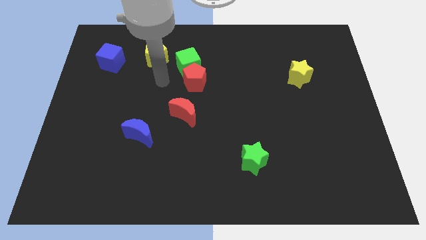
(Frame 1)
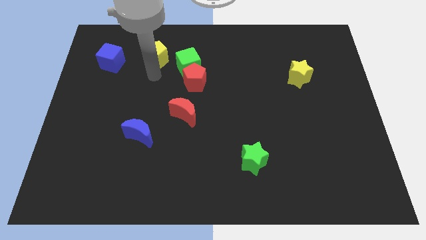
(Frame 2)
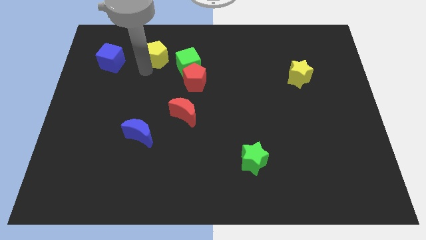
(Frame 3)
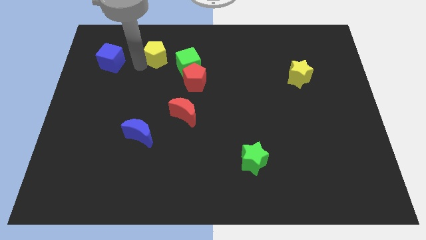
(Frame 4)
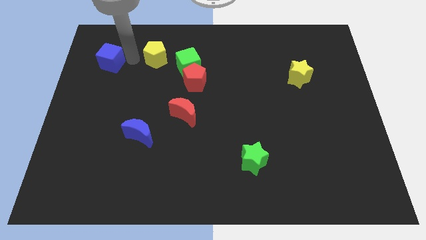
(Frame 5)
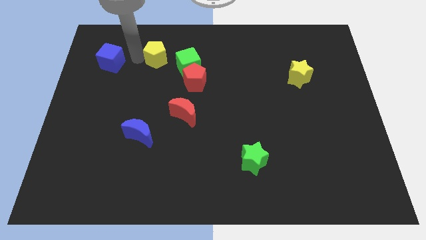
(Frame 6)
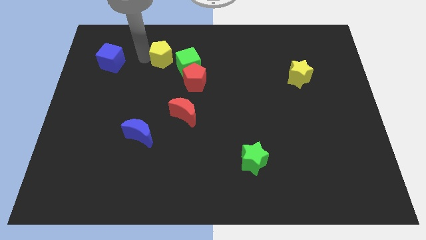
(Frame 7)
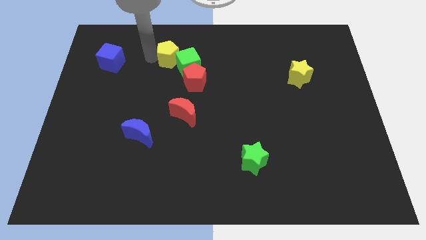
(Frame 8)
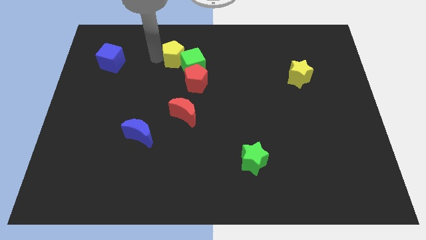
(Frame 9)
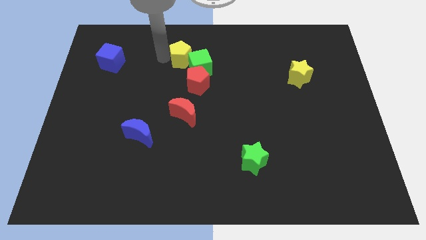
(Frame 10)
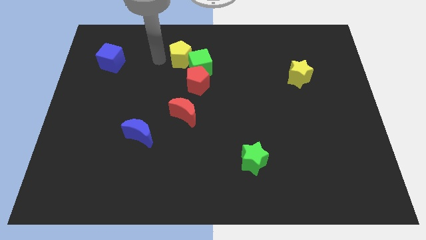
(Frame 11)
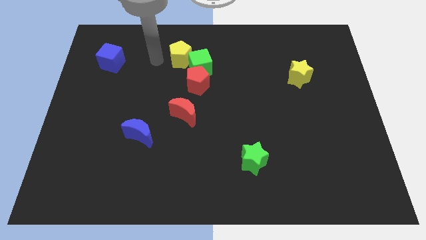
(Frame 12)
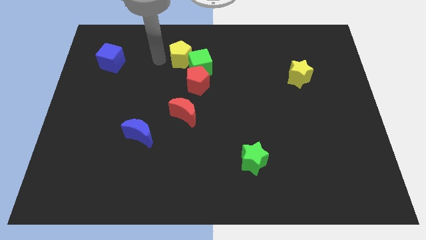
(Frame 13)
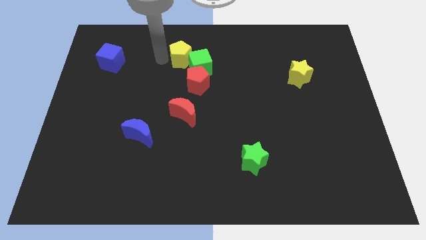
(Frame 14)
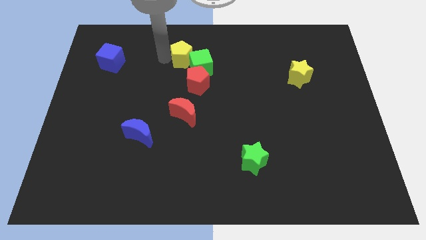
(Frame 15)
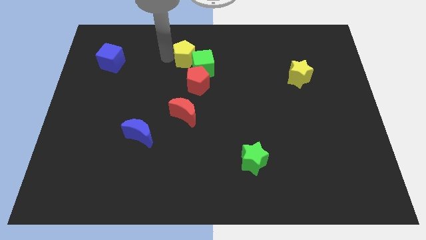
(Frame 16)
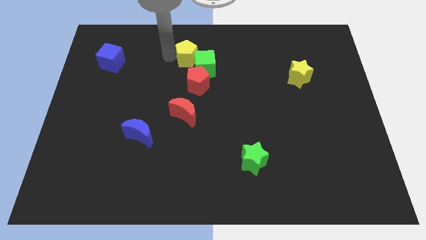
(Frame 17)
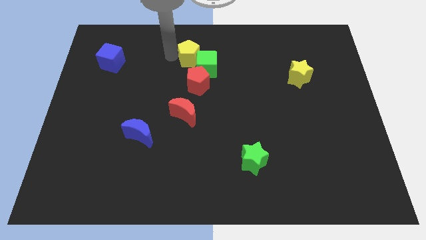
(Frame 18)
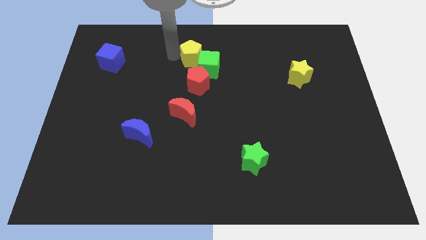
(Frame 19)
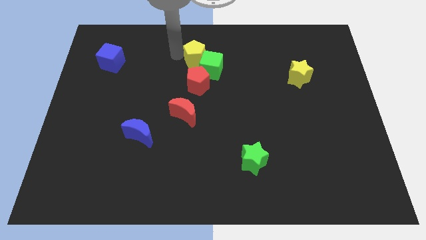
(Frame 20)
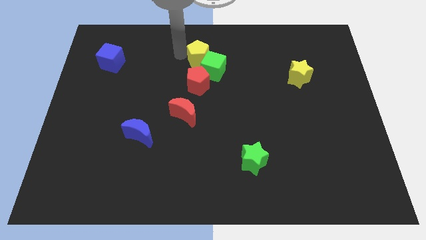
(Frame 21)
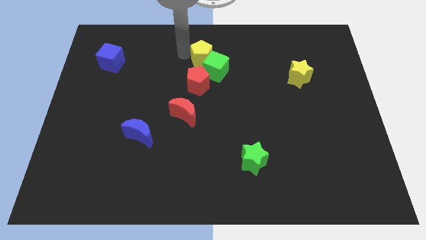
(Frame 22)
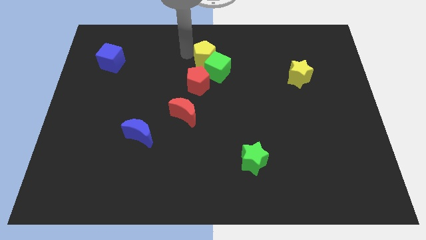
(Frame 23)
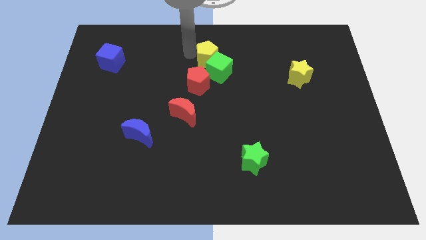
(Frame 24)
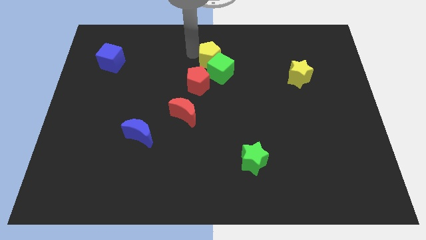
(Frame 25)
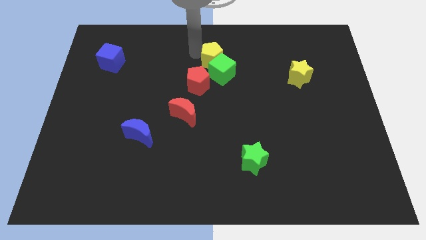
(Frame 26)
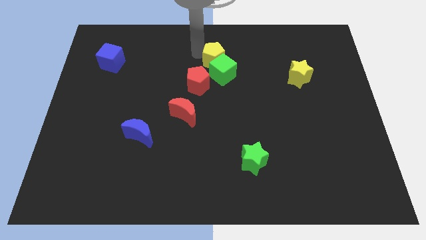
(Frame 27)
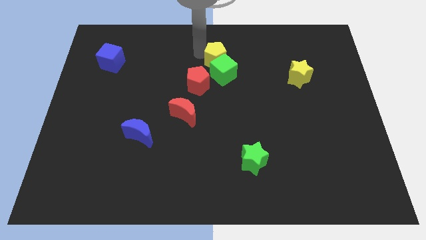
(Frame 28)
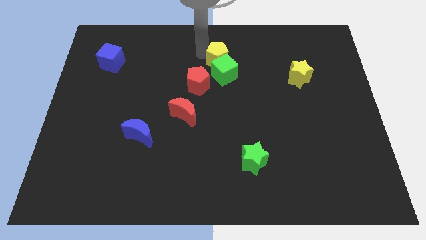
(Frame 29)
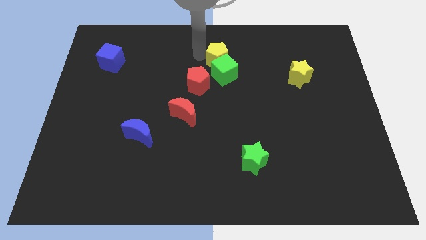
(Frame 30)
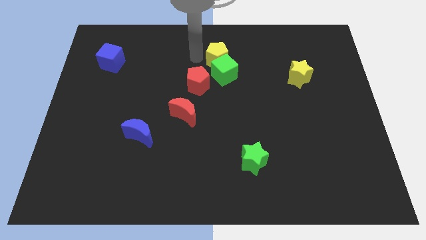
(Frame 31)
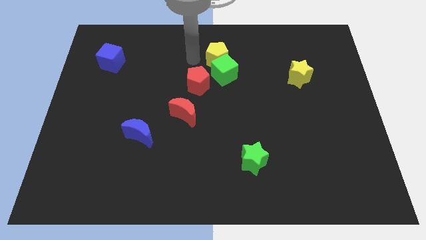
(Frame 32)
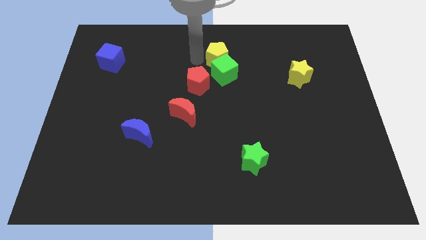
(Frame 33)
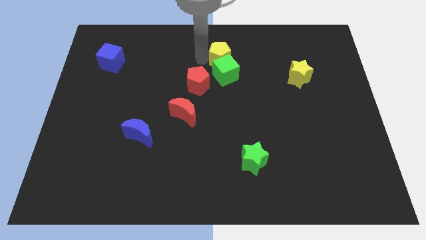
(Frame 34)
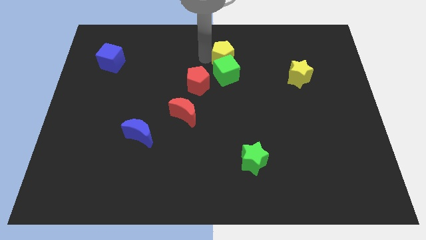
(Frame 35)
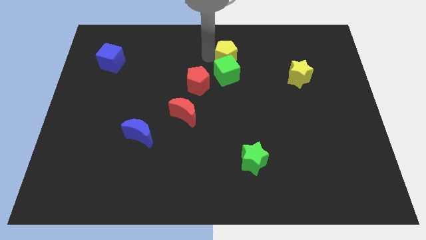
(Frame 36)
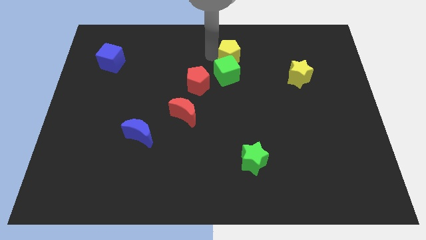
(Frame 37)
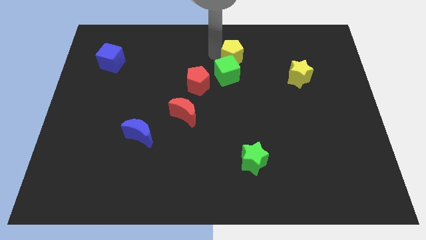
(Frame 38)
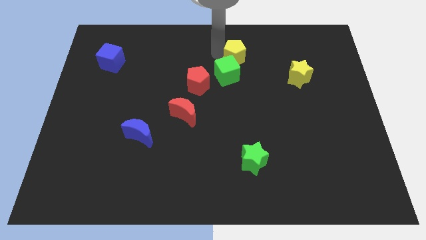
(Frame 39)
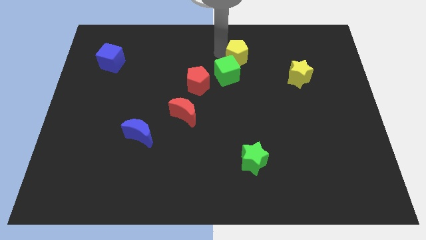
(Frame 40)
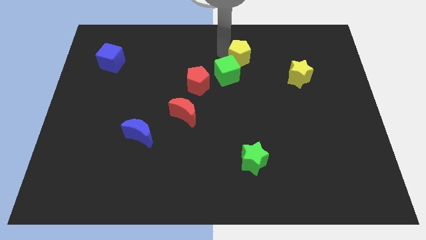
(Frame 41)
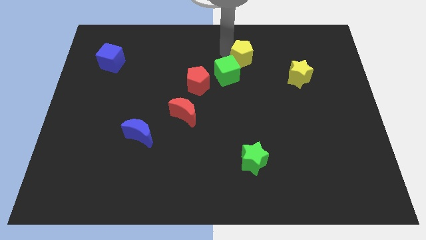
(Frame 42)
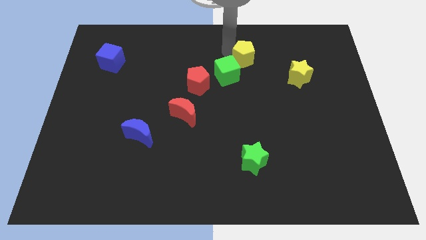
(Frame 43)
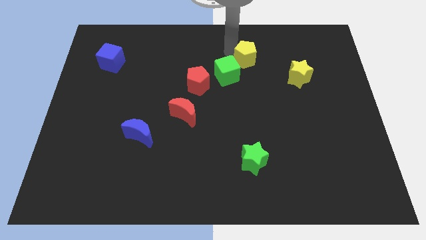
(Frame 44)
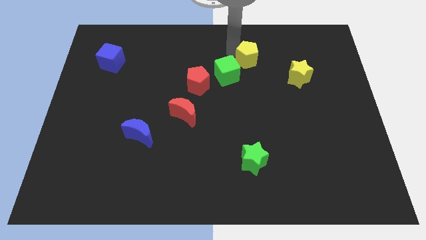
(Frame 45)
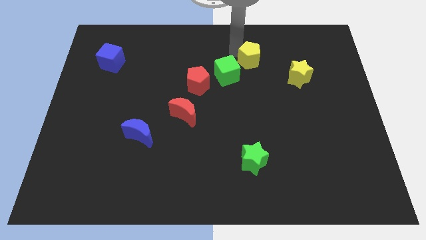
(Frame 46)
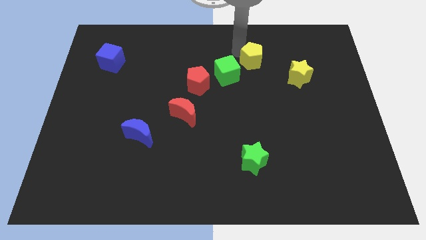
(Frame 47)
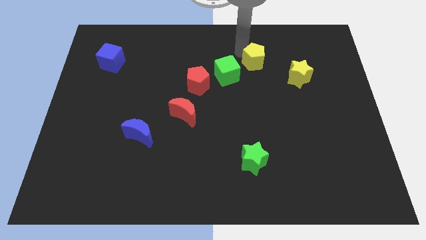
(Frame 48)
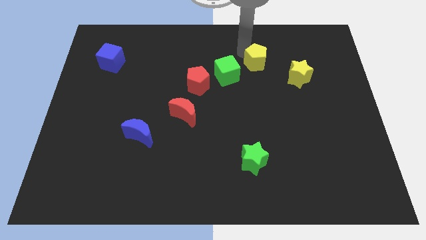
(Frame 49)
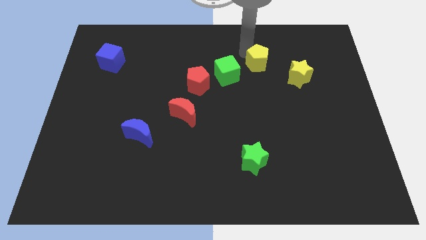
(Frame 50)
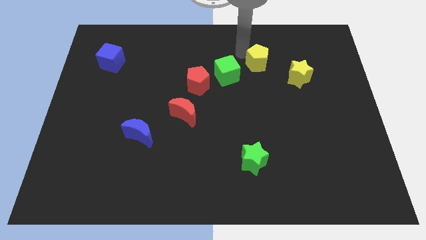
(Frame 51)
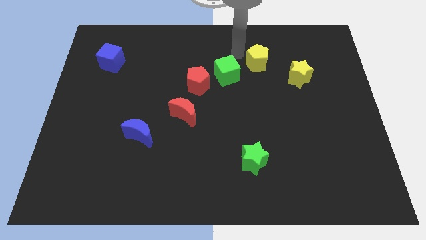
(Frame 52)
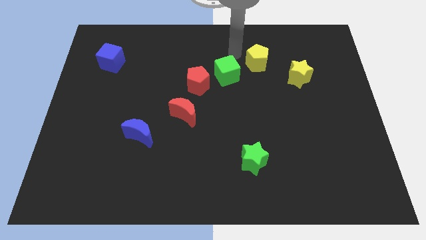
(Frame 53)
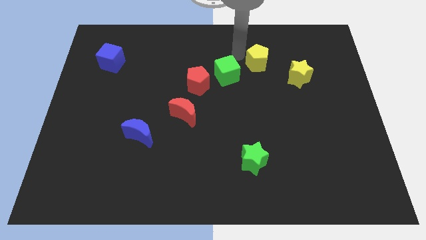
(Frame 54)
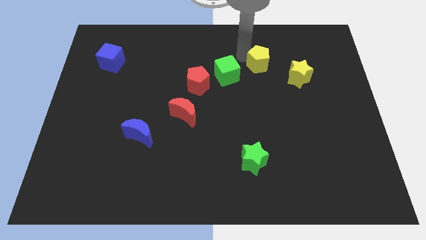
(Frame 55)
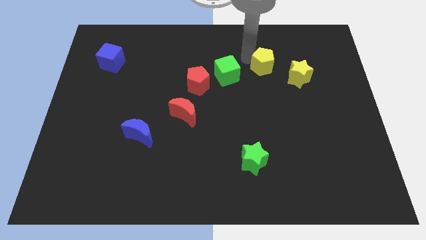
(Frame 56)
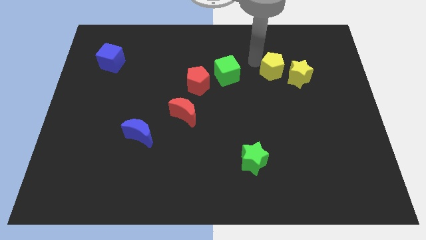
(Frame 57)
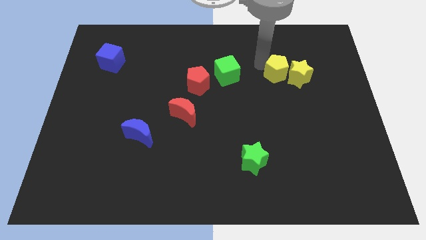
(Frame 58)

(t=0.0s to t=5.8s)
move the yellow pentagon next to the yellow star

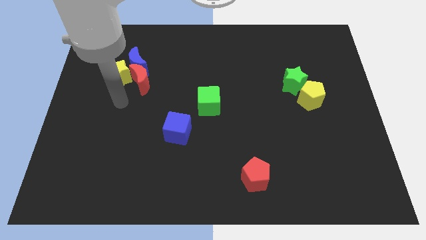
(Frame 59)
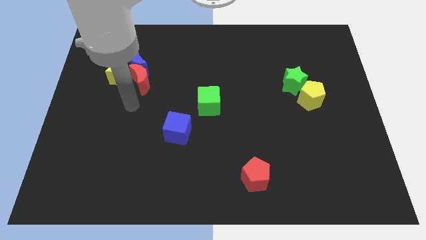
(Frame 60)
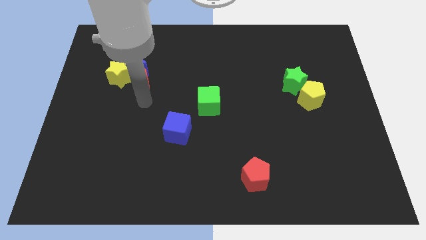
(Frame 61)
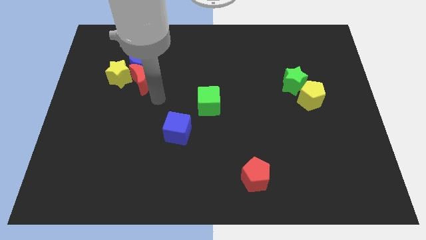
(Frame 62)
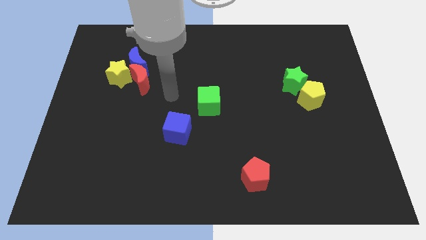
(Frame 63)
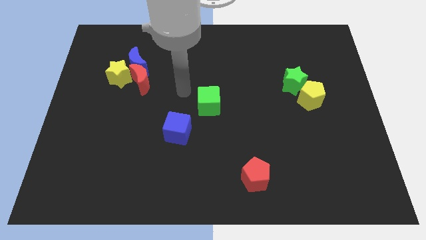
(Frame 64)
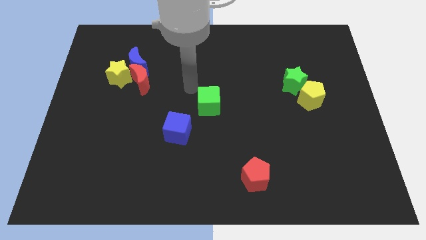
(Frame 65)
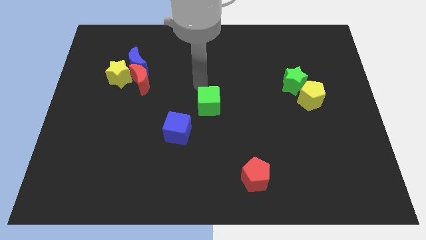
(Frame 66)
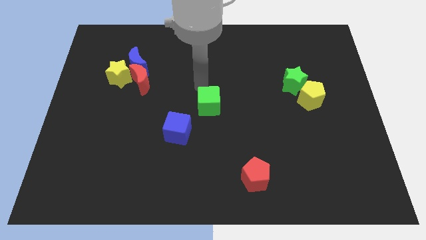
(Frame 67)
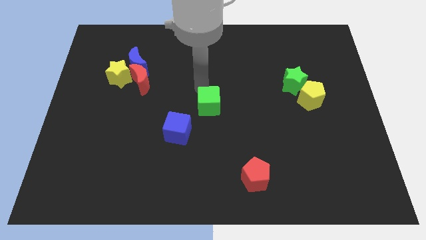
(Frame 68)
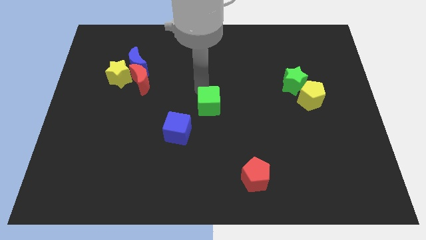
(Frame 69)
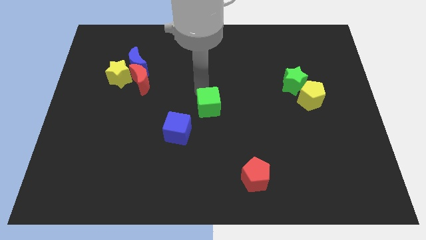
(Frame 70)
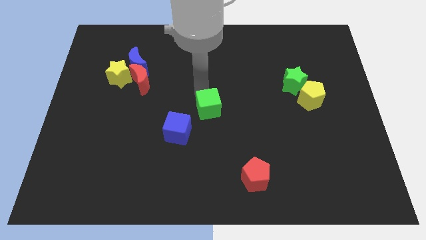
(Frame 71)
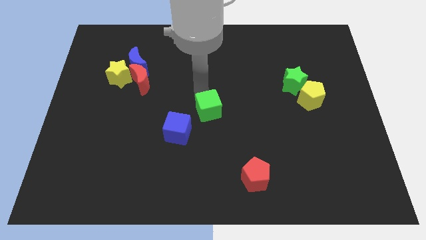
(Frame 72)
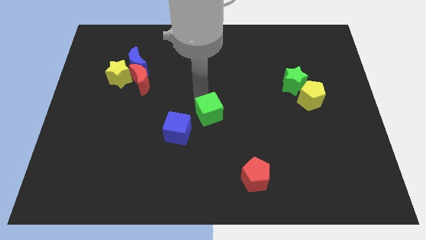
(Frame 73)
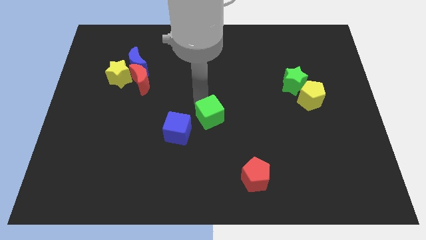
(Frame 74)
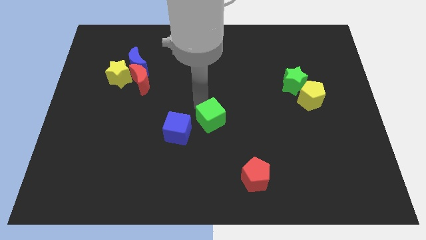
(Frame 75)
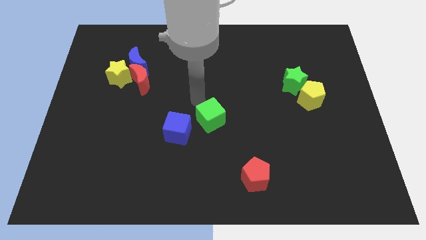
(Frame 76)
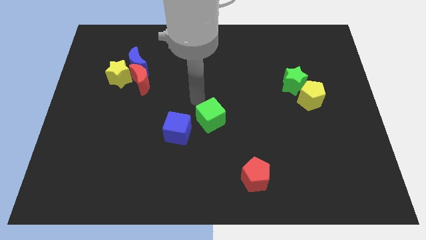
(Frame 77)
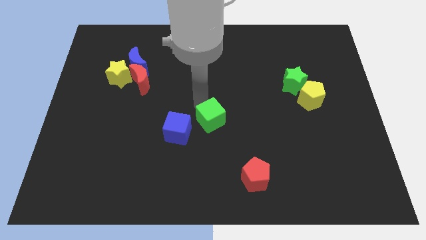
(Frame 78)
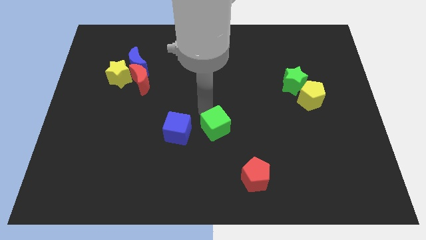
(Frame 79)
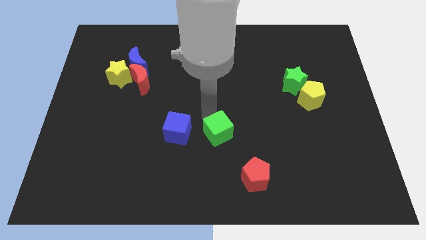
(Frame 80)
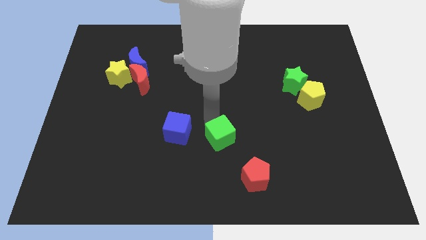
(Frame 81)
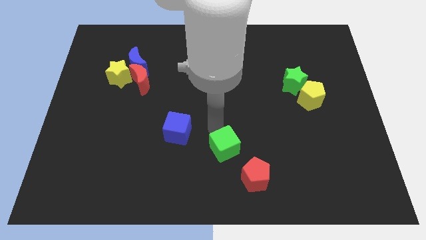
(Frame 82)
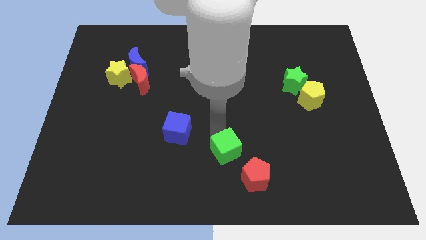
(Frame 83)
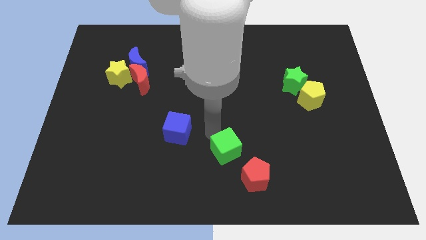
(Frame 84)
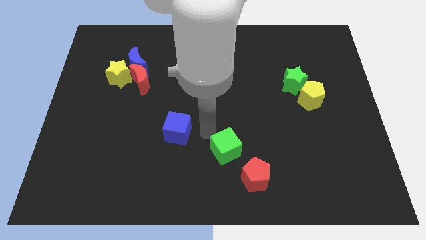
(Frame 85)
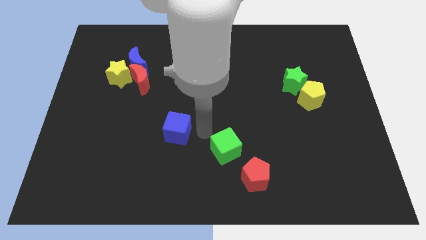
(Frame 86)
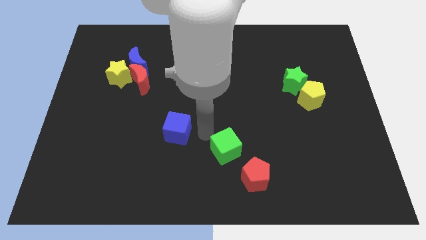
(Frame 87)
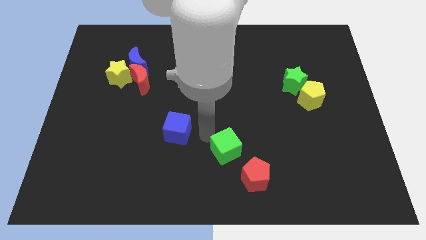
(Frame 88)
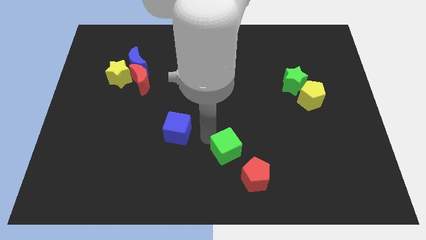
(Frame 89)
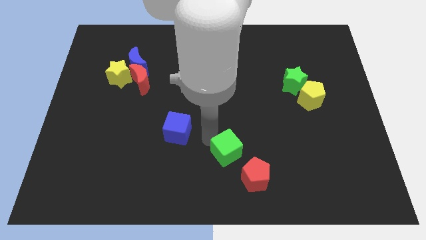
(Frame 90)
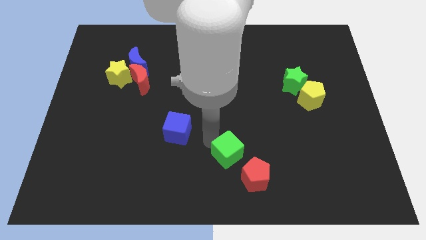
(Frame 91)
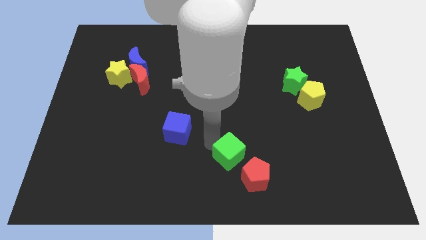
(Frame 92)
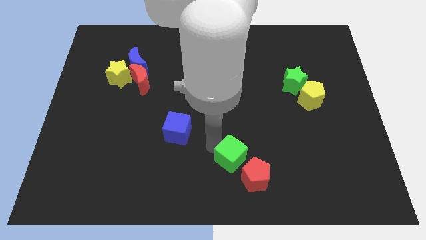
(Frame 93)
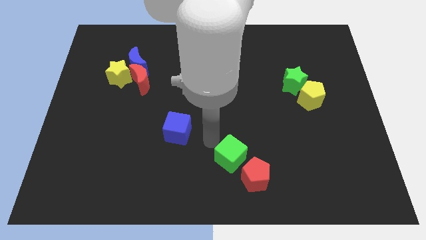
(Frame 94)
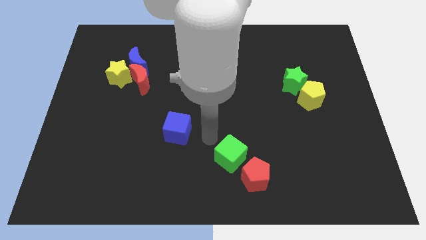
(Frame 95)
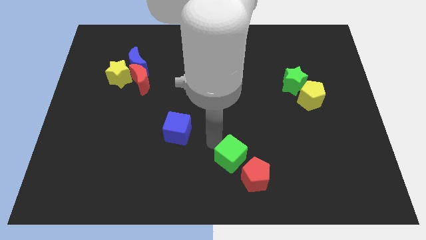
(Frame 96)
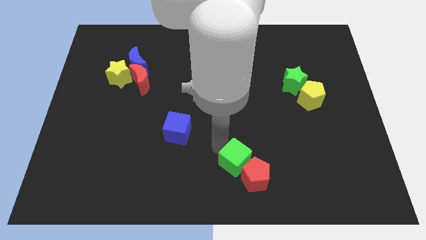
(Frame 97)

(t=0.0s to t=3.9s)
put the green cube to the red pentagon
